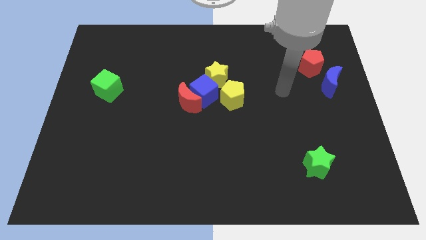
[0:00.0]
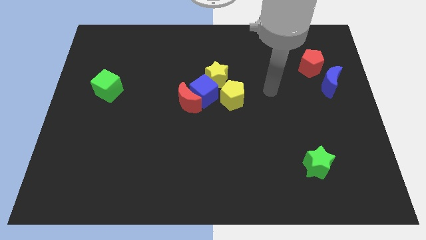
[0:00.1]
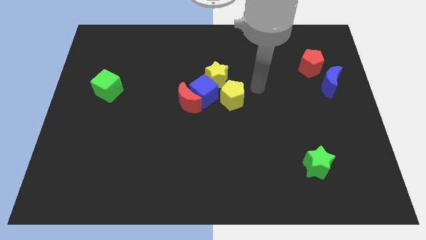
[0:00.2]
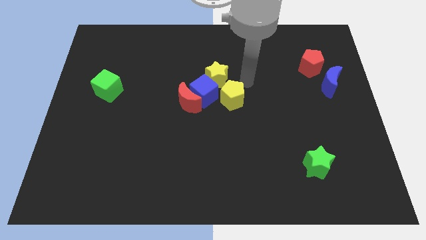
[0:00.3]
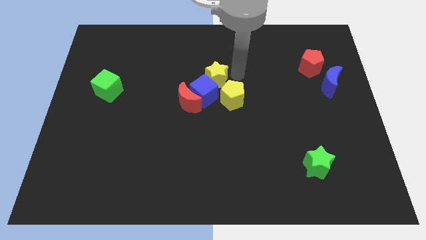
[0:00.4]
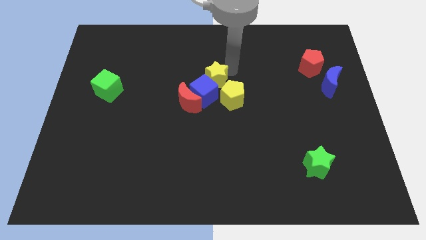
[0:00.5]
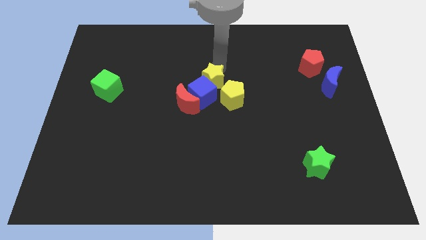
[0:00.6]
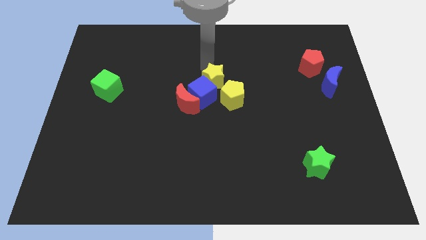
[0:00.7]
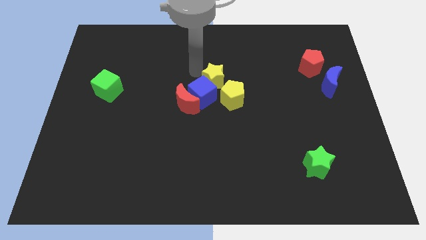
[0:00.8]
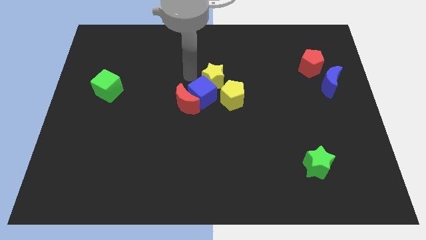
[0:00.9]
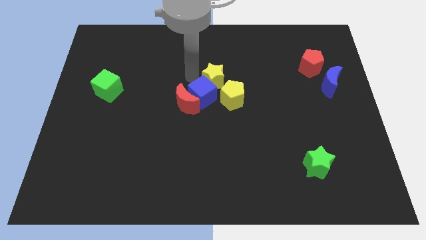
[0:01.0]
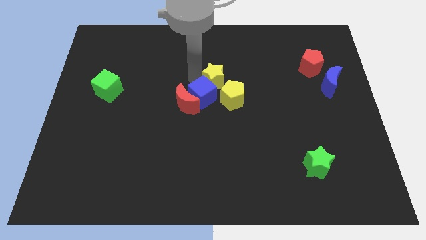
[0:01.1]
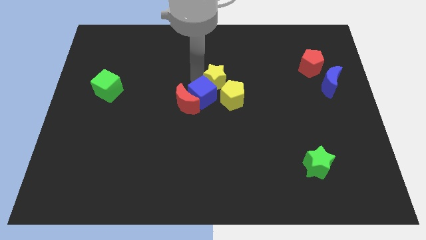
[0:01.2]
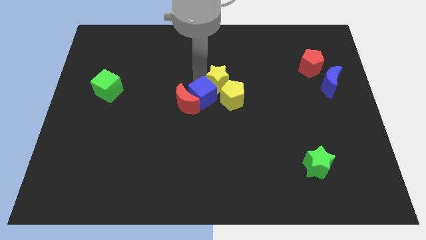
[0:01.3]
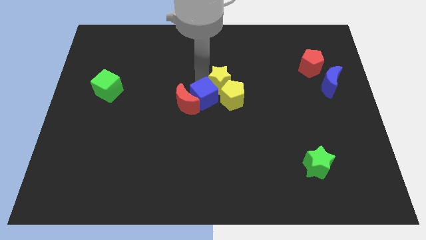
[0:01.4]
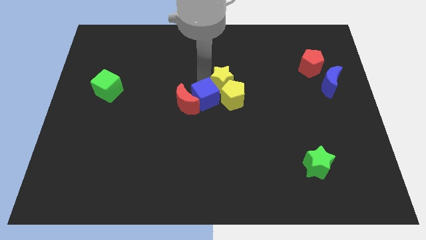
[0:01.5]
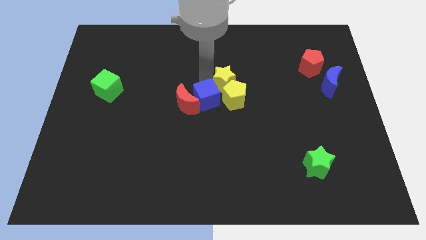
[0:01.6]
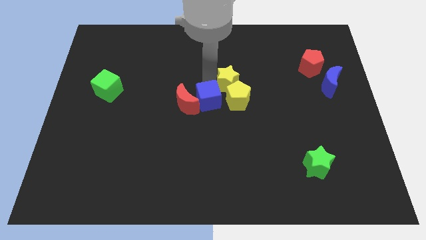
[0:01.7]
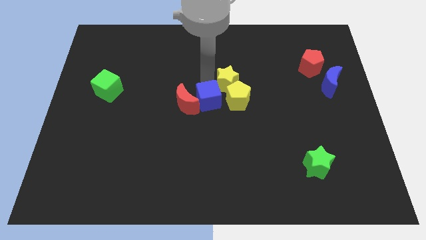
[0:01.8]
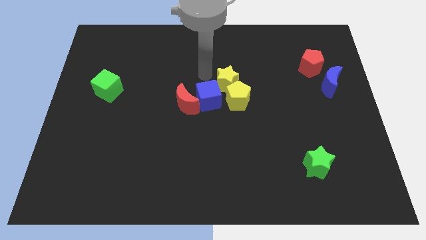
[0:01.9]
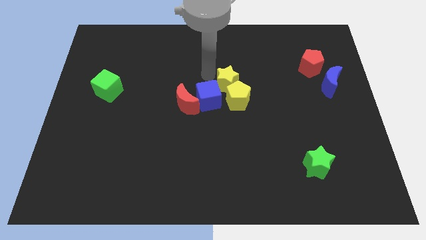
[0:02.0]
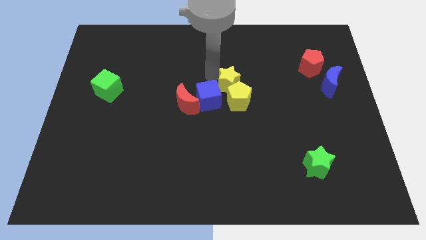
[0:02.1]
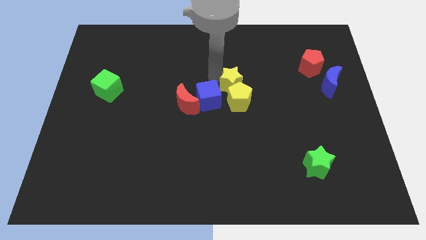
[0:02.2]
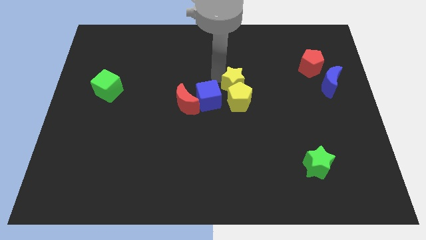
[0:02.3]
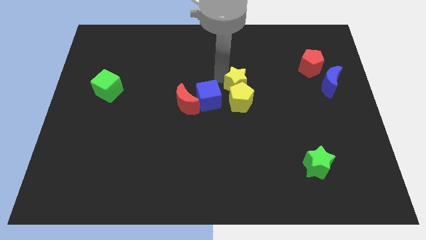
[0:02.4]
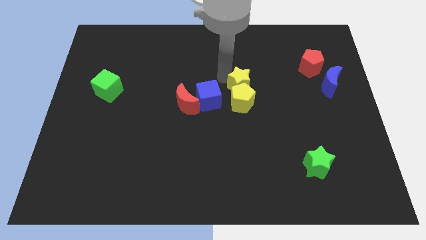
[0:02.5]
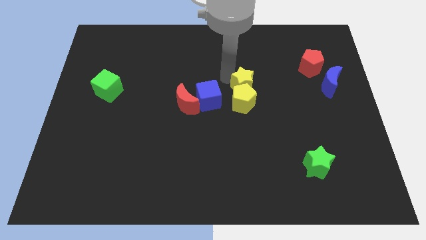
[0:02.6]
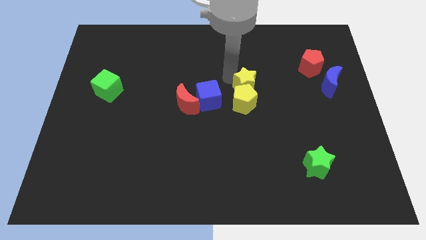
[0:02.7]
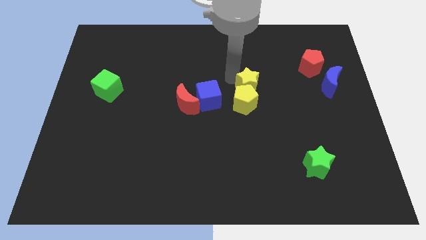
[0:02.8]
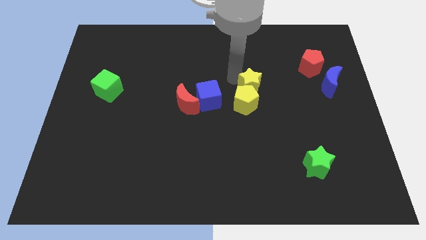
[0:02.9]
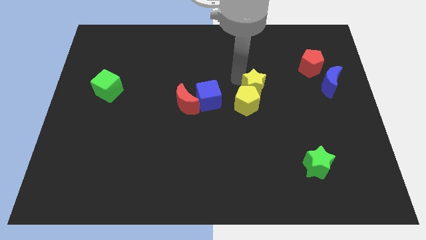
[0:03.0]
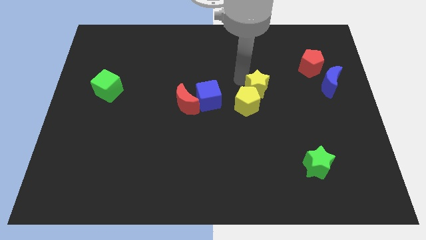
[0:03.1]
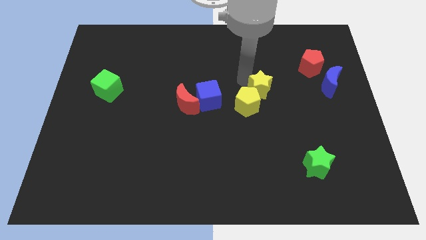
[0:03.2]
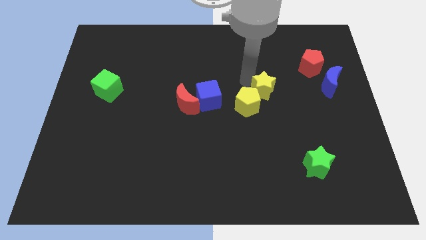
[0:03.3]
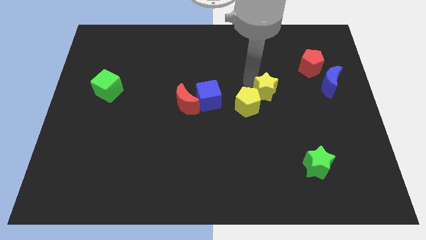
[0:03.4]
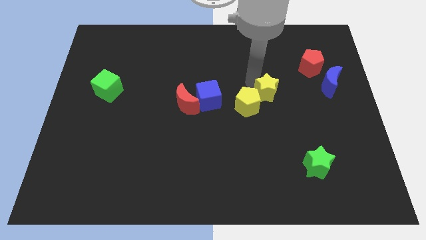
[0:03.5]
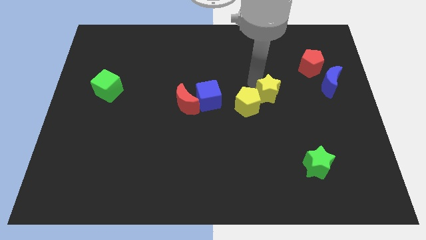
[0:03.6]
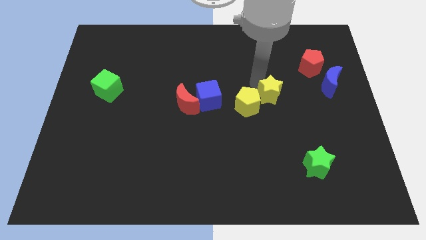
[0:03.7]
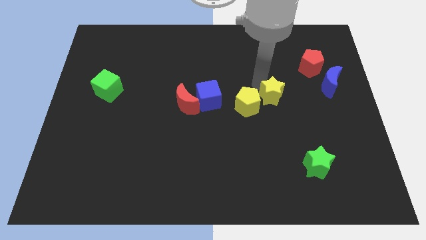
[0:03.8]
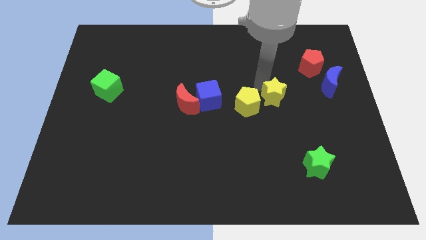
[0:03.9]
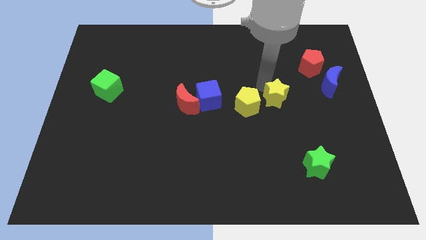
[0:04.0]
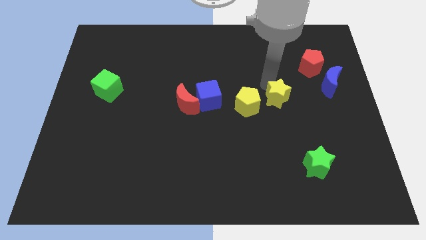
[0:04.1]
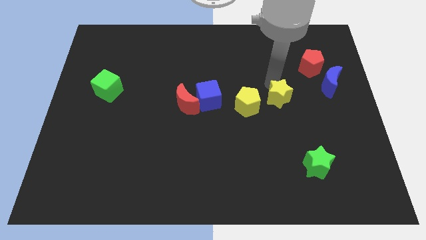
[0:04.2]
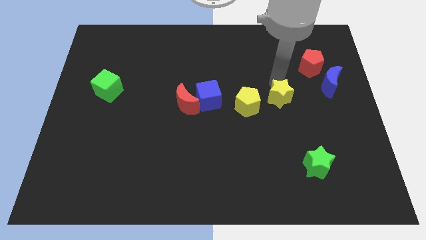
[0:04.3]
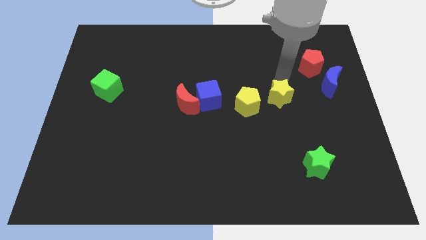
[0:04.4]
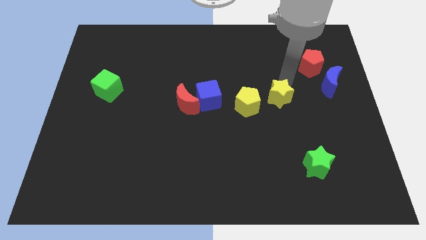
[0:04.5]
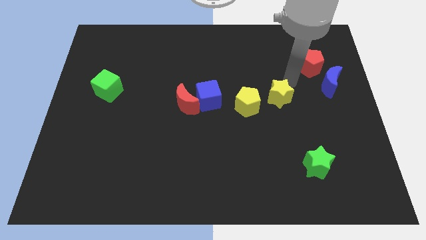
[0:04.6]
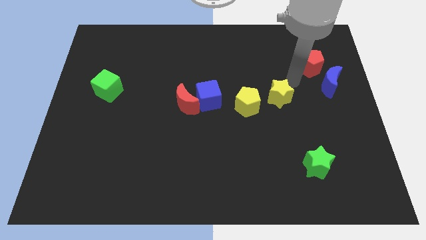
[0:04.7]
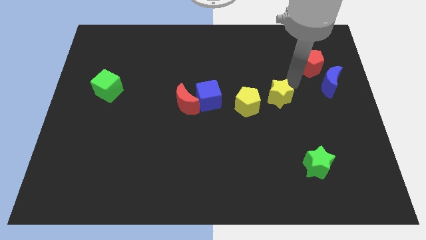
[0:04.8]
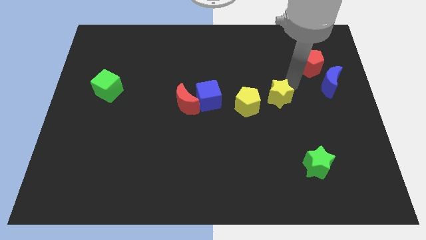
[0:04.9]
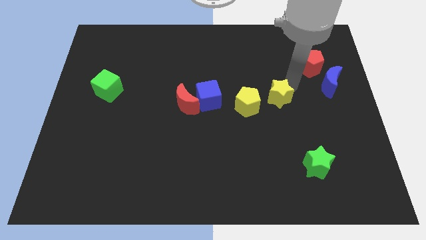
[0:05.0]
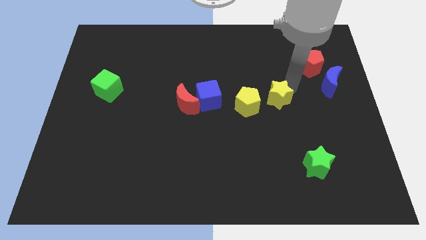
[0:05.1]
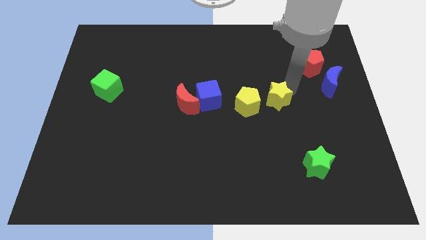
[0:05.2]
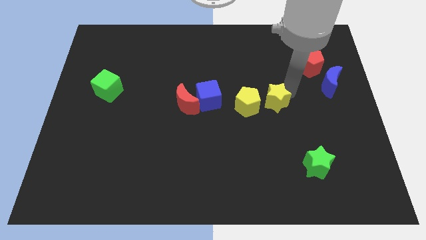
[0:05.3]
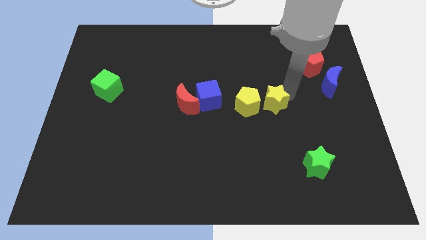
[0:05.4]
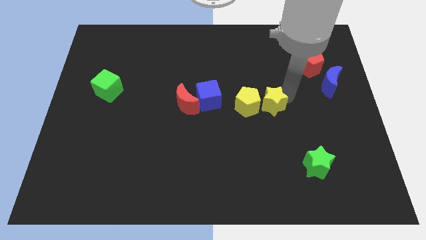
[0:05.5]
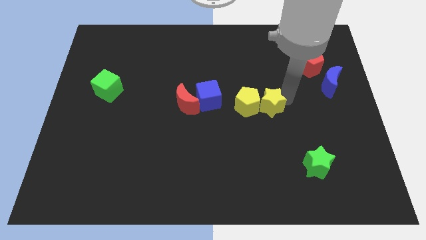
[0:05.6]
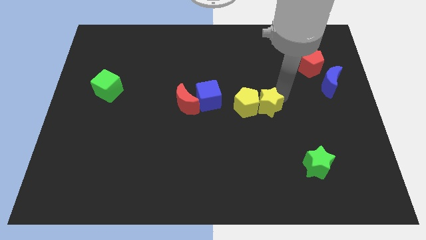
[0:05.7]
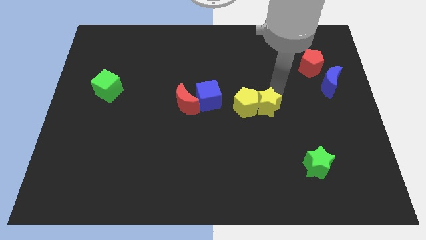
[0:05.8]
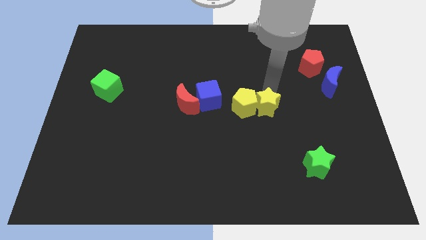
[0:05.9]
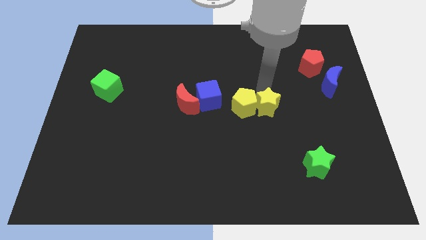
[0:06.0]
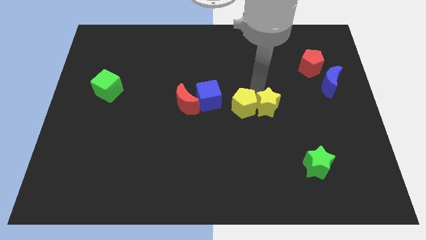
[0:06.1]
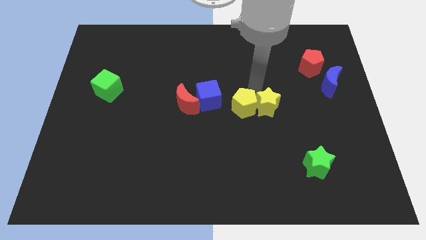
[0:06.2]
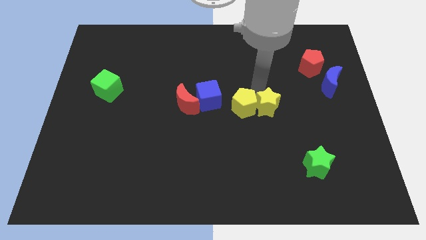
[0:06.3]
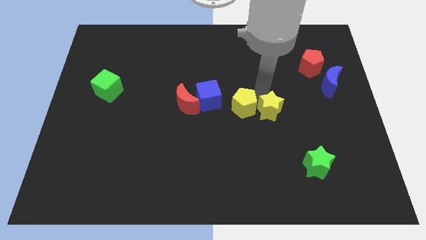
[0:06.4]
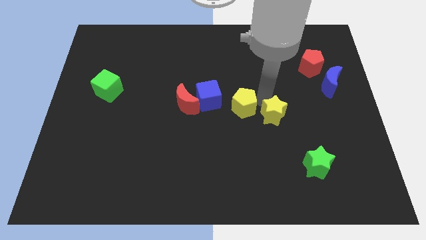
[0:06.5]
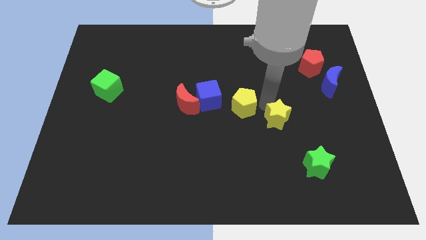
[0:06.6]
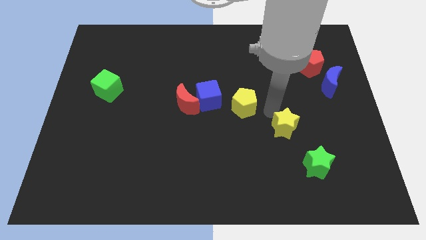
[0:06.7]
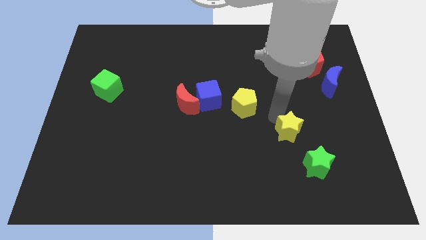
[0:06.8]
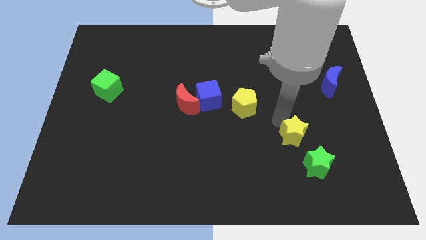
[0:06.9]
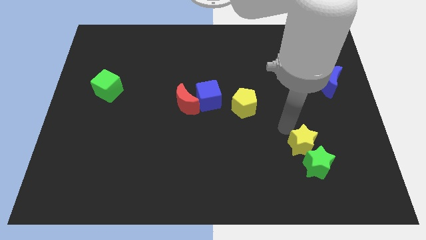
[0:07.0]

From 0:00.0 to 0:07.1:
slide the yellow star close to the green star
